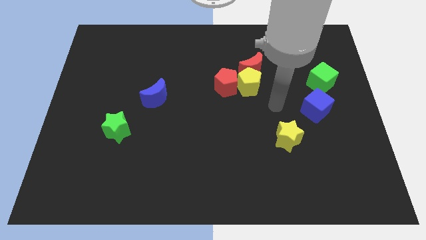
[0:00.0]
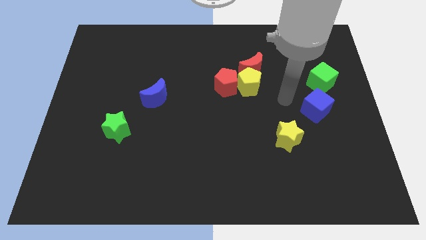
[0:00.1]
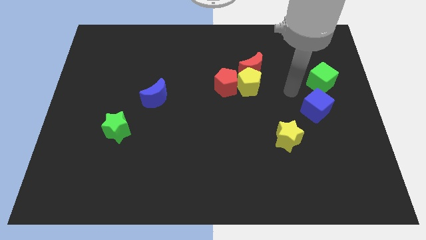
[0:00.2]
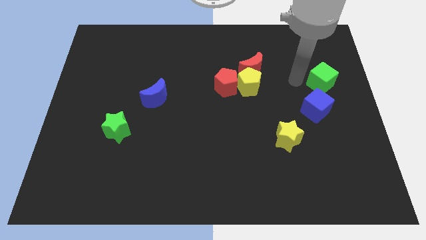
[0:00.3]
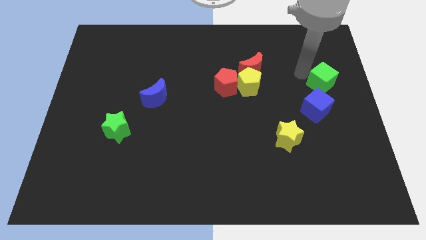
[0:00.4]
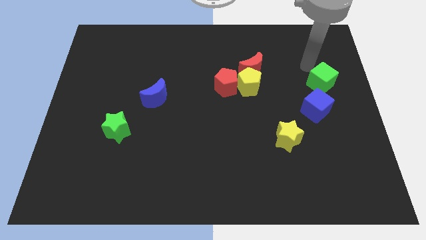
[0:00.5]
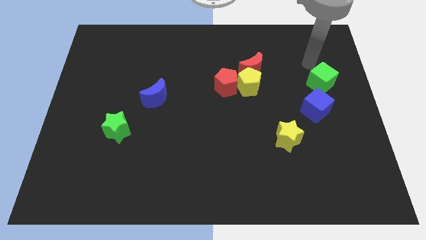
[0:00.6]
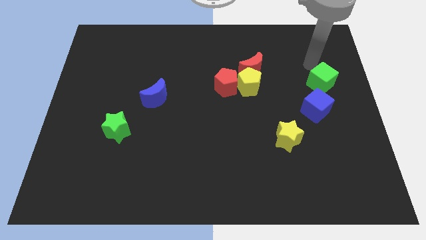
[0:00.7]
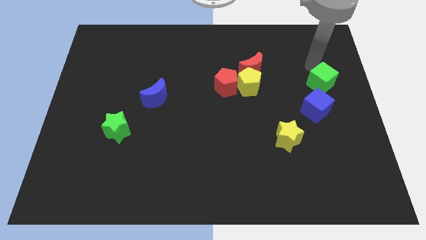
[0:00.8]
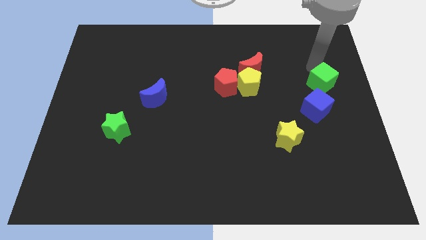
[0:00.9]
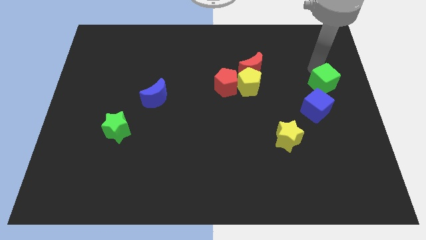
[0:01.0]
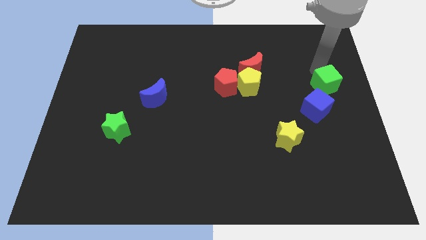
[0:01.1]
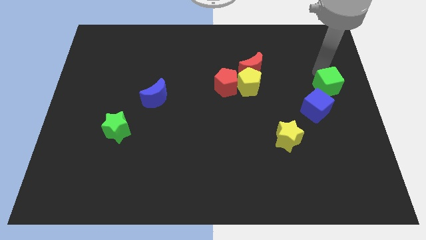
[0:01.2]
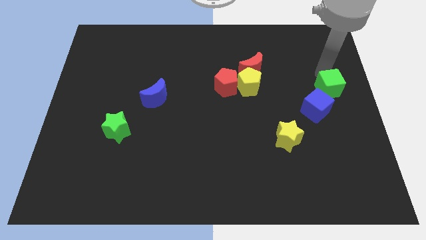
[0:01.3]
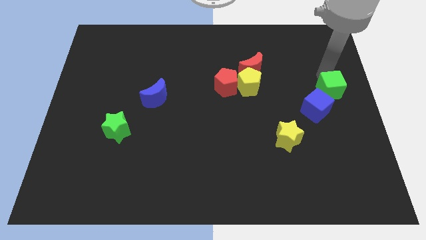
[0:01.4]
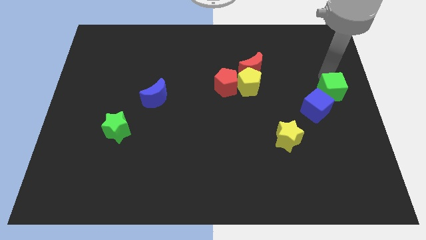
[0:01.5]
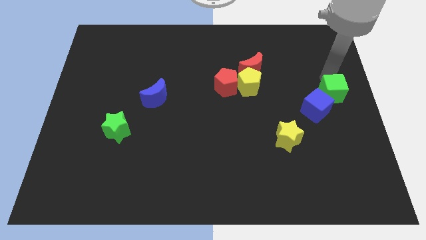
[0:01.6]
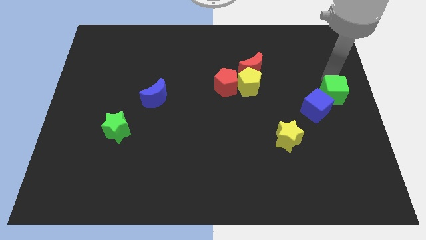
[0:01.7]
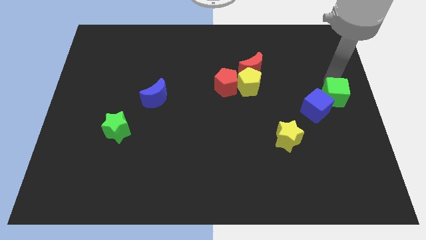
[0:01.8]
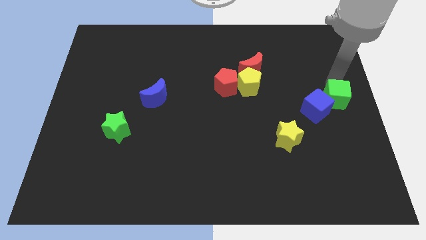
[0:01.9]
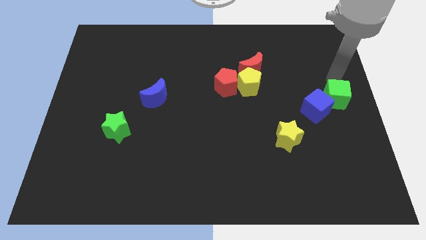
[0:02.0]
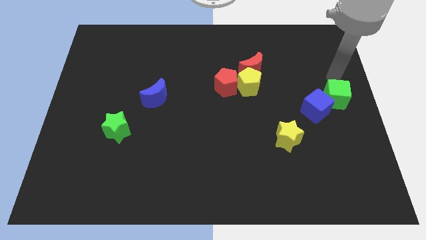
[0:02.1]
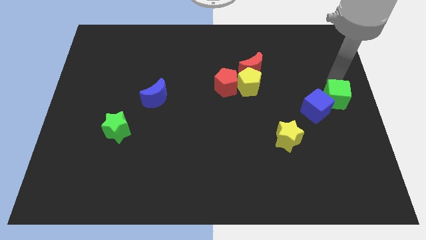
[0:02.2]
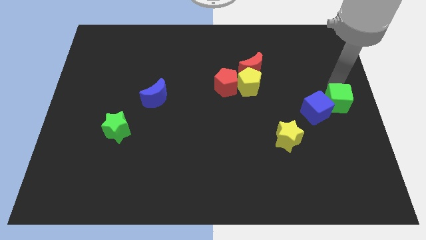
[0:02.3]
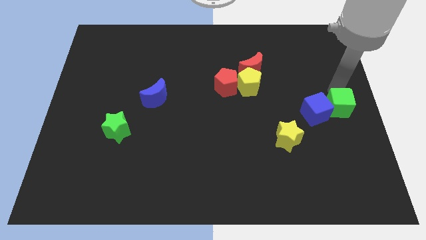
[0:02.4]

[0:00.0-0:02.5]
move the green cube downwards a little

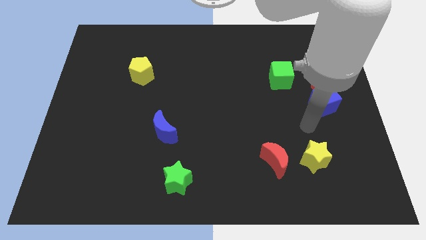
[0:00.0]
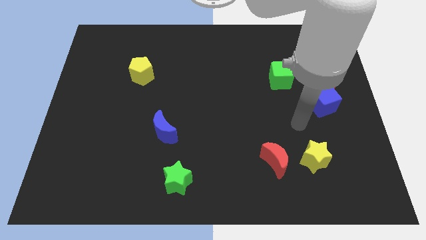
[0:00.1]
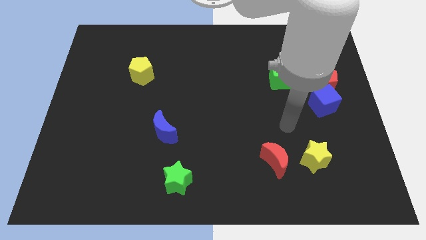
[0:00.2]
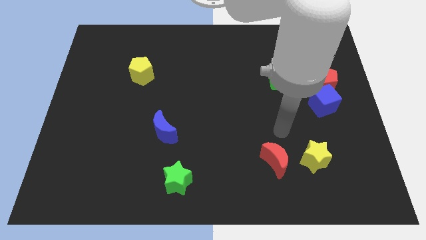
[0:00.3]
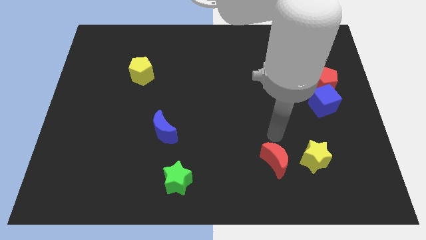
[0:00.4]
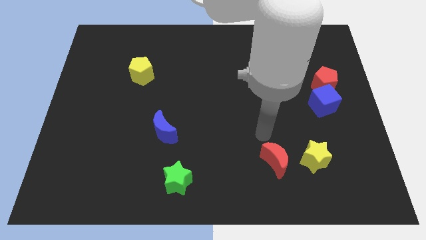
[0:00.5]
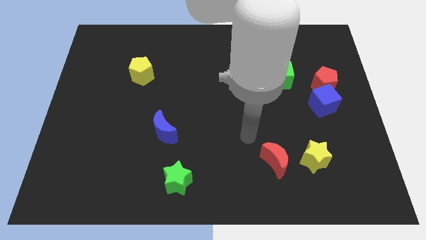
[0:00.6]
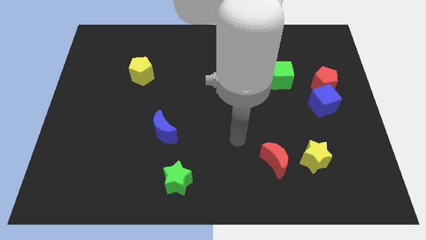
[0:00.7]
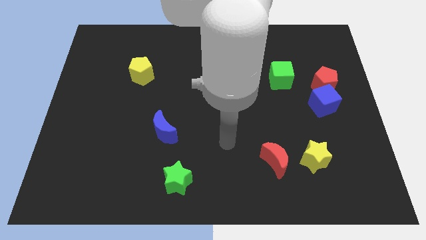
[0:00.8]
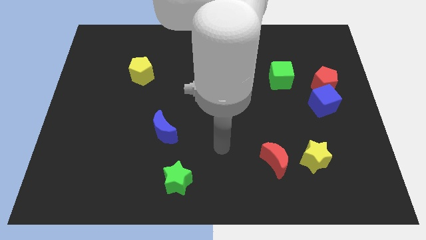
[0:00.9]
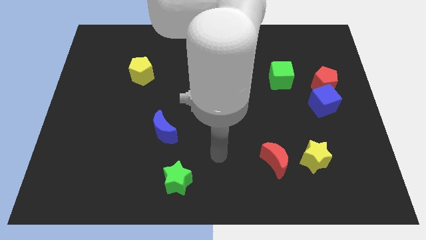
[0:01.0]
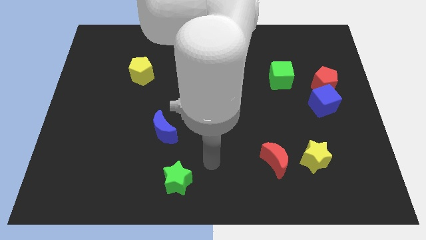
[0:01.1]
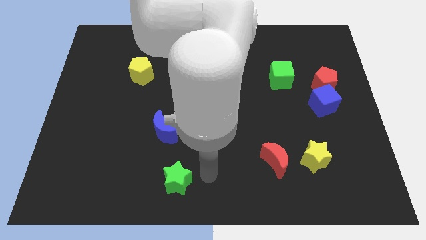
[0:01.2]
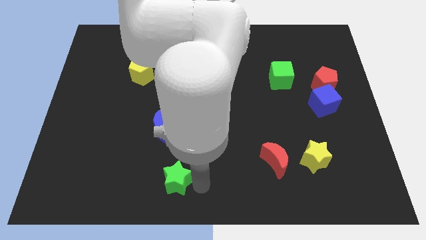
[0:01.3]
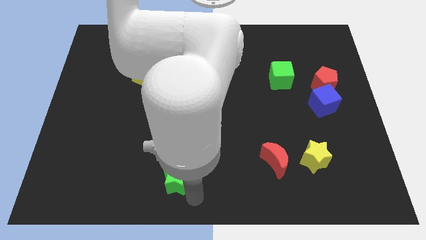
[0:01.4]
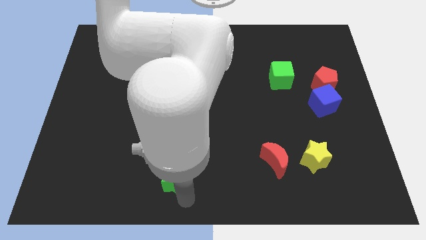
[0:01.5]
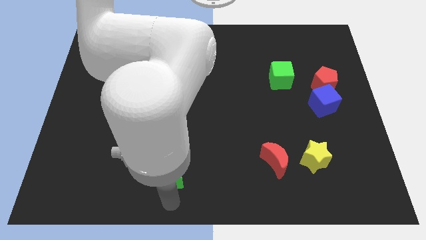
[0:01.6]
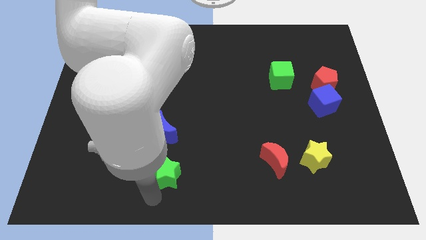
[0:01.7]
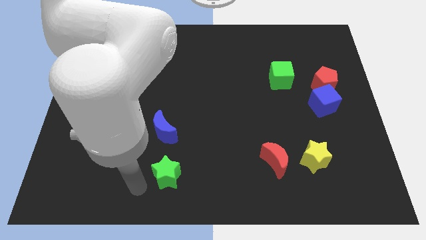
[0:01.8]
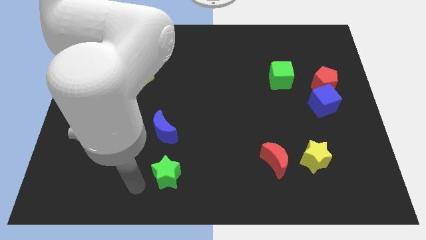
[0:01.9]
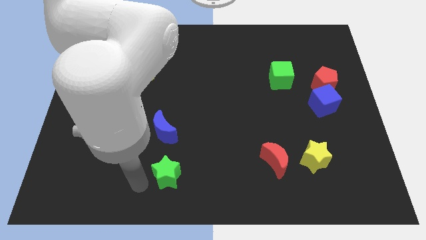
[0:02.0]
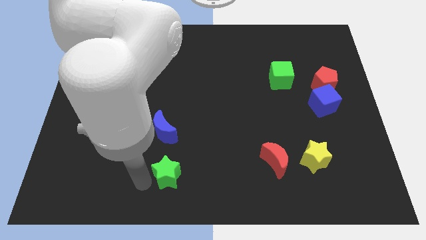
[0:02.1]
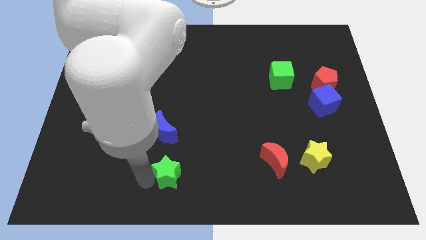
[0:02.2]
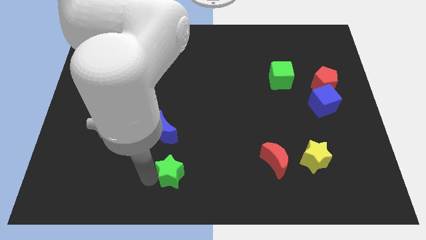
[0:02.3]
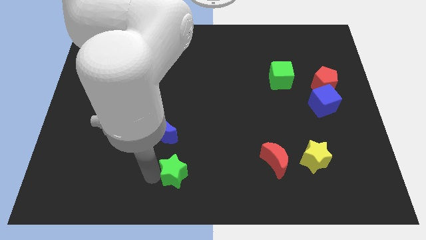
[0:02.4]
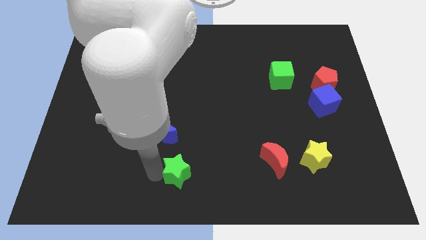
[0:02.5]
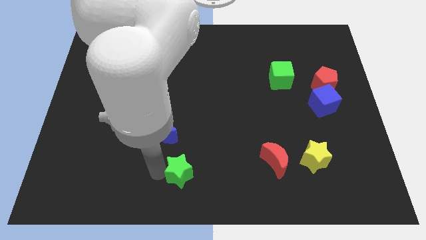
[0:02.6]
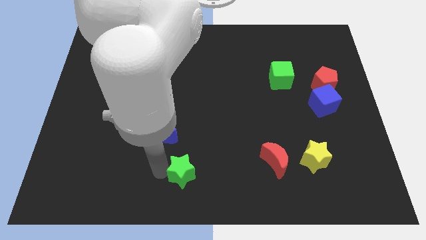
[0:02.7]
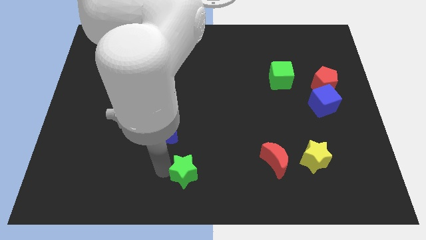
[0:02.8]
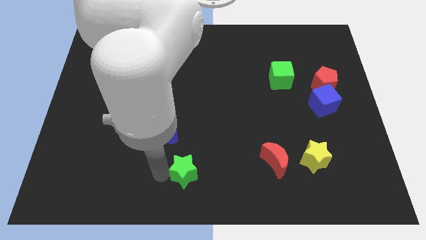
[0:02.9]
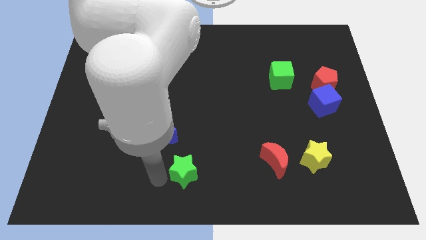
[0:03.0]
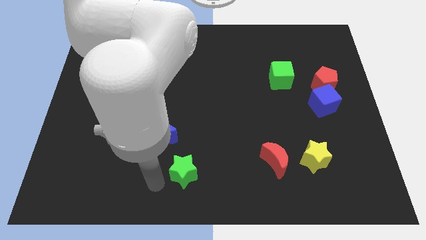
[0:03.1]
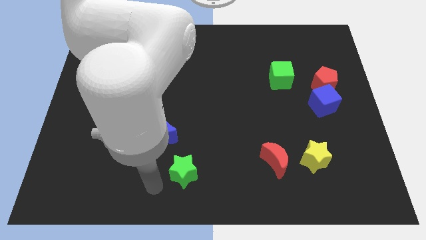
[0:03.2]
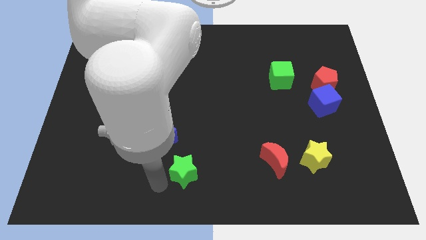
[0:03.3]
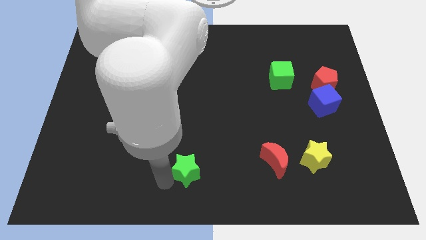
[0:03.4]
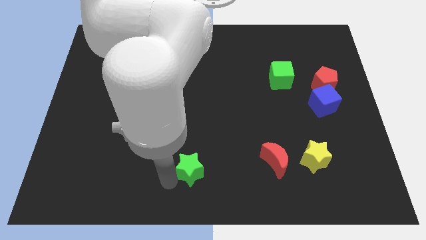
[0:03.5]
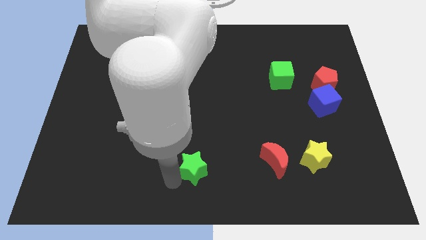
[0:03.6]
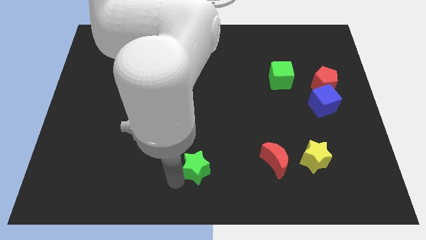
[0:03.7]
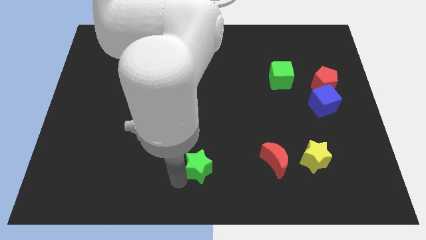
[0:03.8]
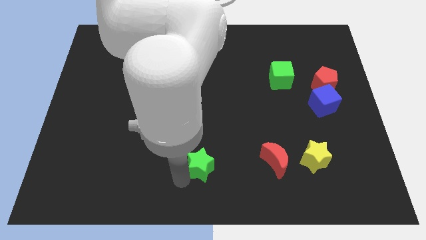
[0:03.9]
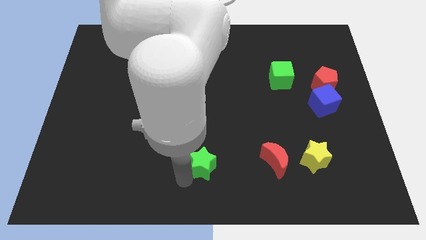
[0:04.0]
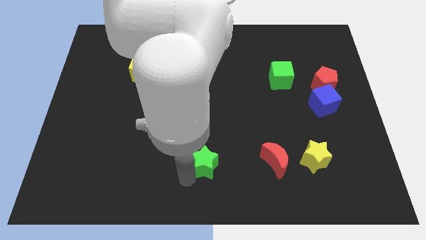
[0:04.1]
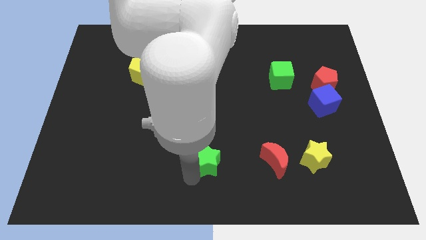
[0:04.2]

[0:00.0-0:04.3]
move the green star upwards and then right a little

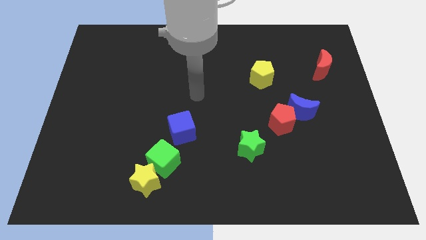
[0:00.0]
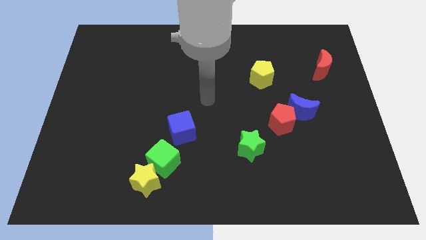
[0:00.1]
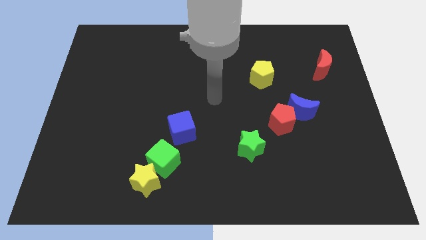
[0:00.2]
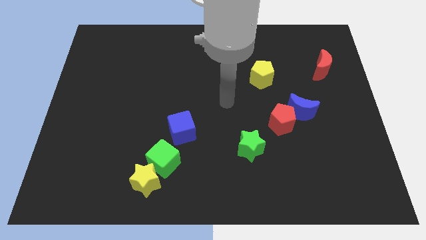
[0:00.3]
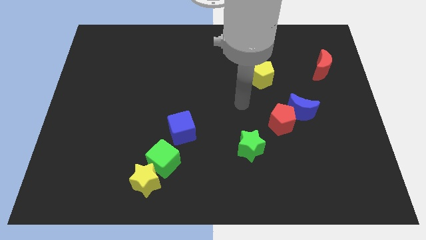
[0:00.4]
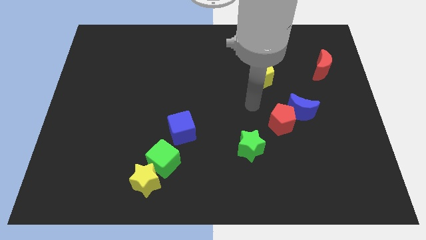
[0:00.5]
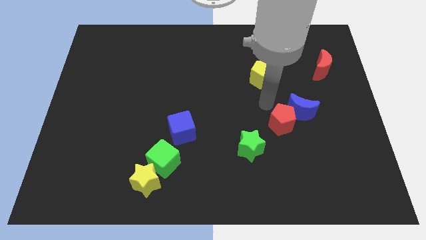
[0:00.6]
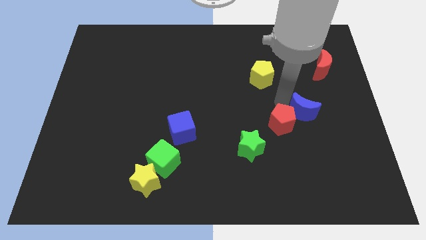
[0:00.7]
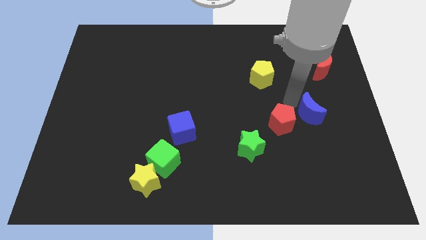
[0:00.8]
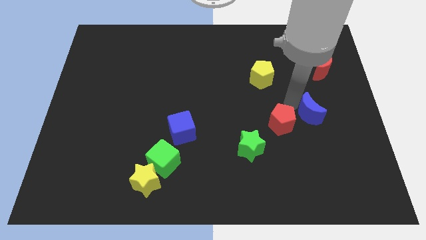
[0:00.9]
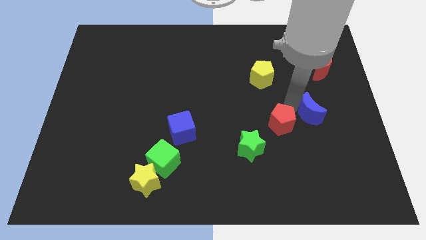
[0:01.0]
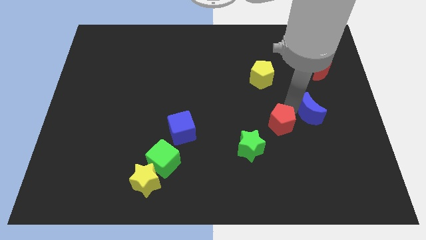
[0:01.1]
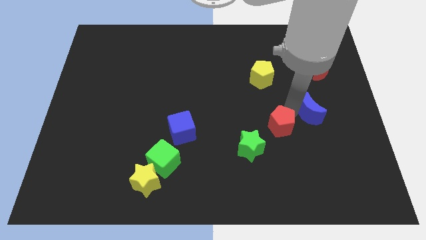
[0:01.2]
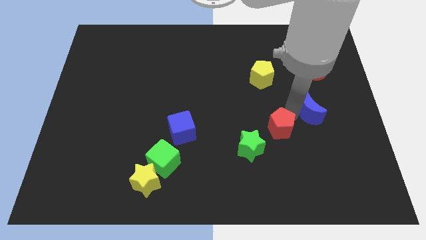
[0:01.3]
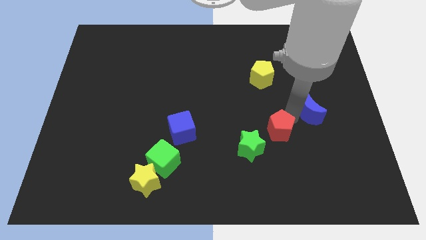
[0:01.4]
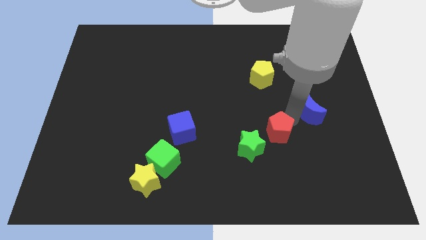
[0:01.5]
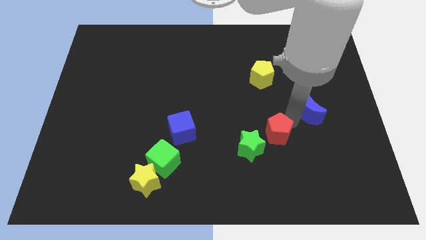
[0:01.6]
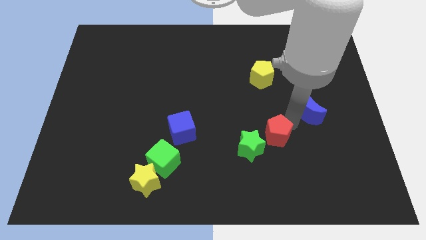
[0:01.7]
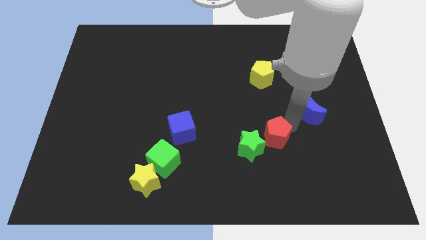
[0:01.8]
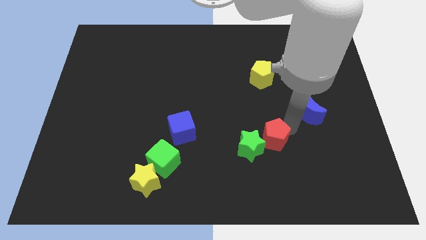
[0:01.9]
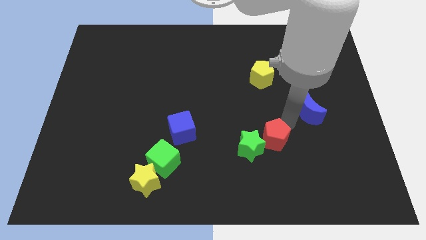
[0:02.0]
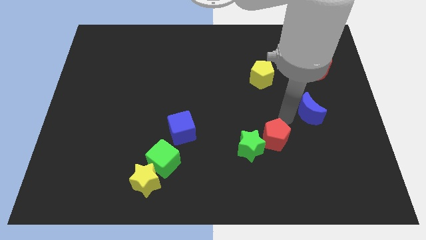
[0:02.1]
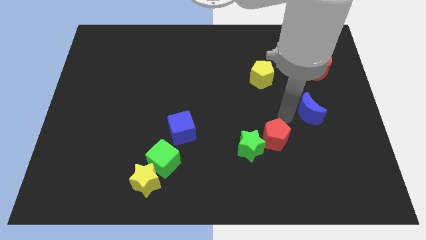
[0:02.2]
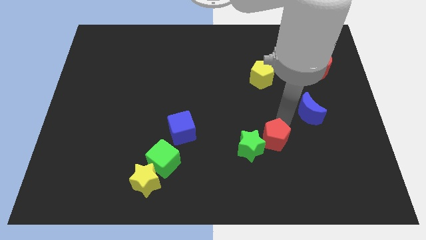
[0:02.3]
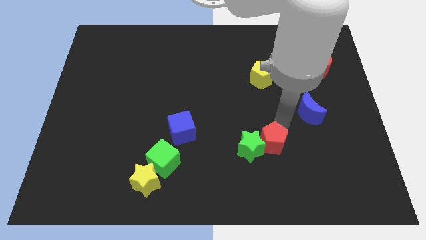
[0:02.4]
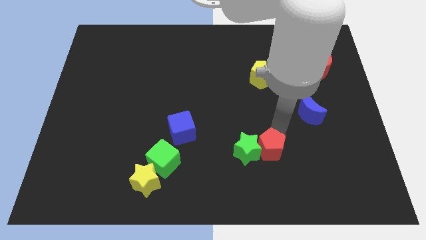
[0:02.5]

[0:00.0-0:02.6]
slightly slide the red pentagon downwards and left diagonally
